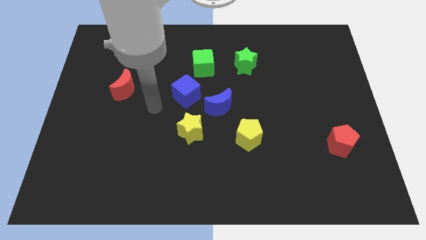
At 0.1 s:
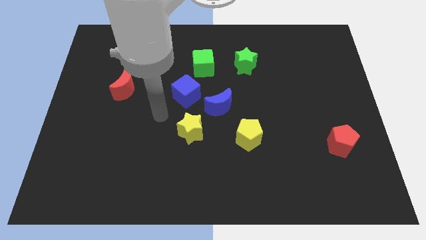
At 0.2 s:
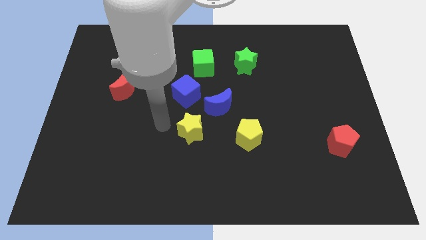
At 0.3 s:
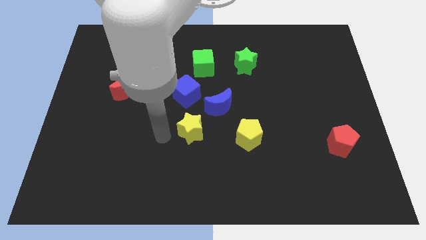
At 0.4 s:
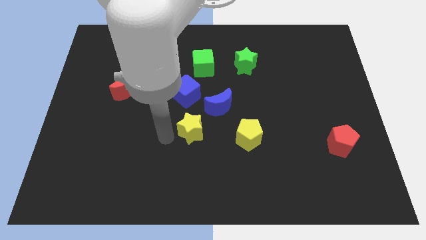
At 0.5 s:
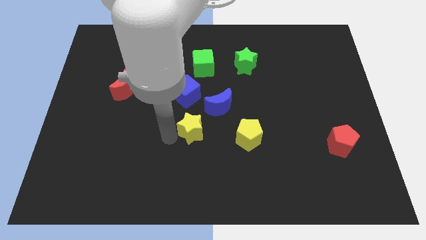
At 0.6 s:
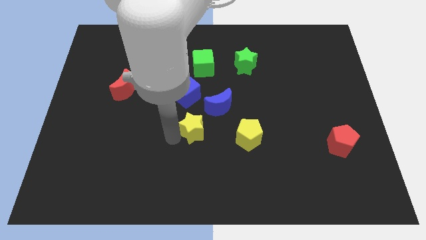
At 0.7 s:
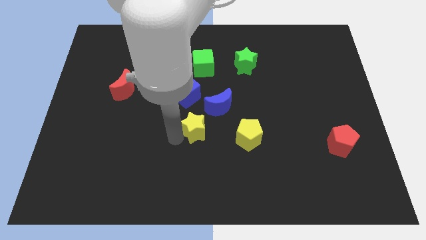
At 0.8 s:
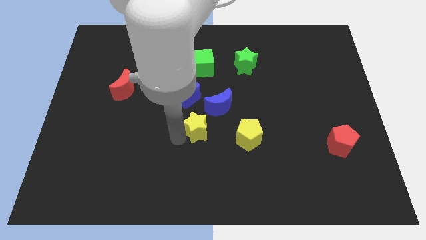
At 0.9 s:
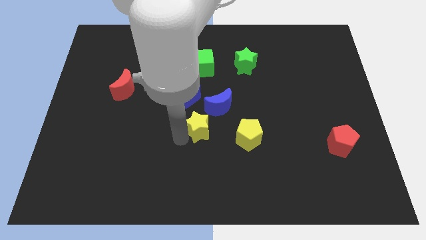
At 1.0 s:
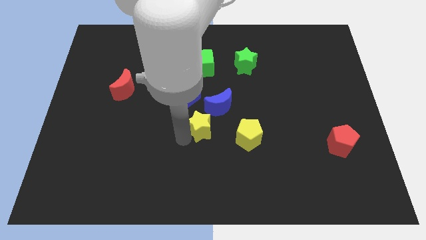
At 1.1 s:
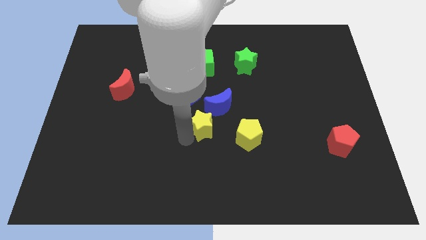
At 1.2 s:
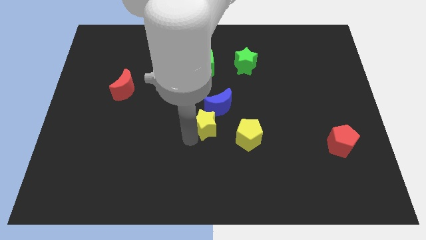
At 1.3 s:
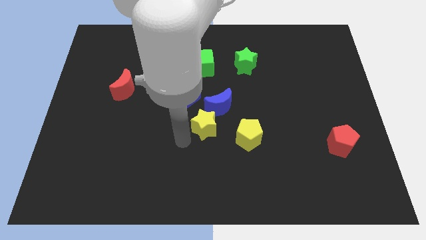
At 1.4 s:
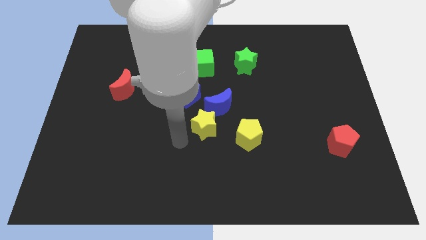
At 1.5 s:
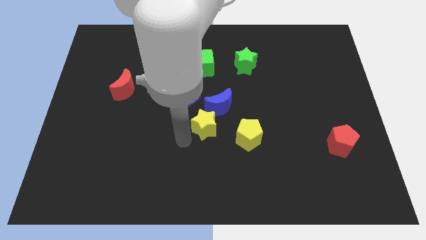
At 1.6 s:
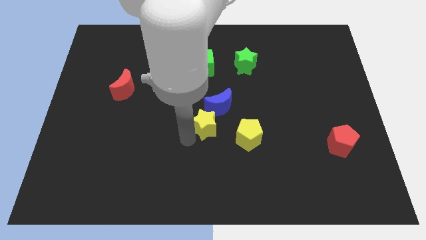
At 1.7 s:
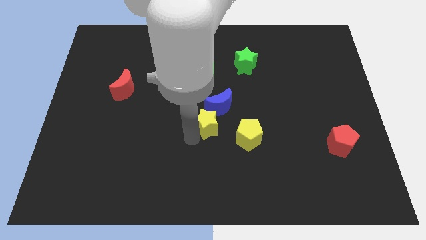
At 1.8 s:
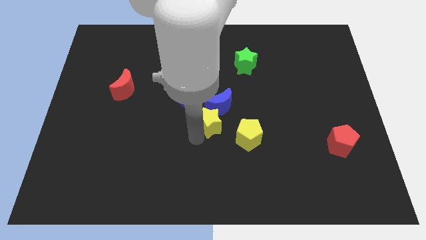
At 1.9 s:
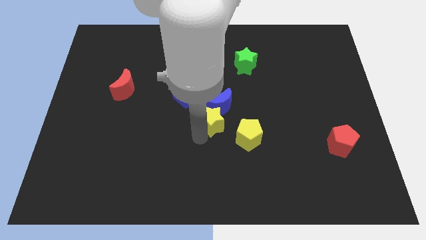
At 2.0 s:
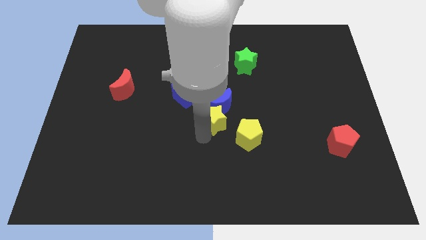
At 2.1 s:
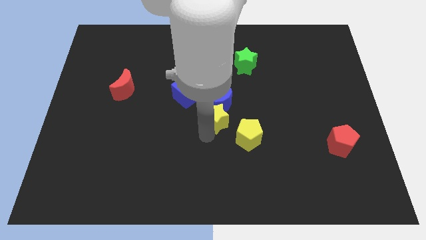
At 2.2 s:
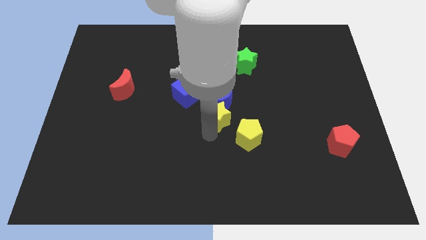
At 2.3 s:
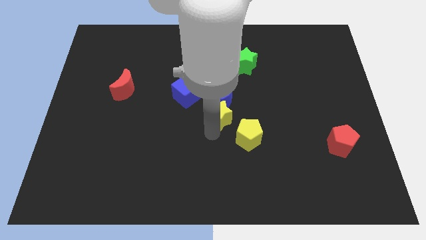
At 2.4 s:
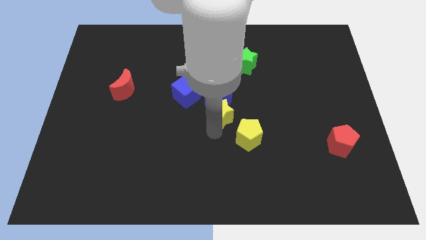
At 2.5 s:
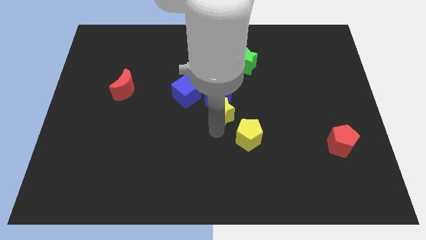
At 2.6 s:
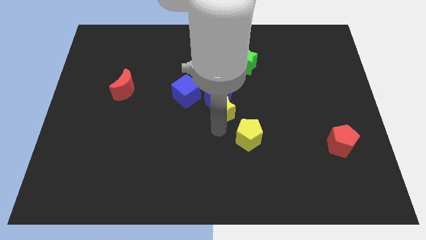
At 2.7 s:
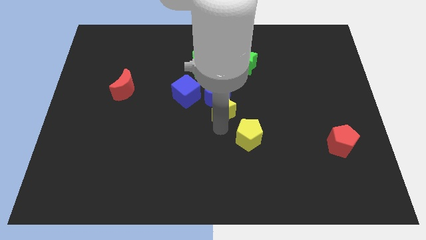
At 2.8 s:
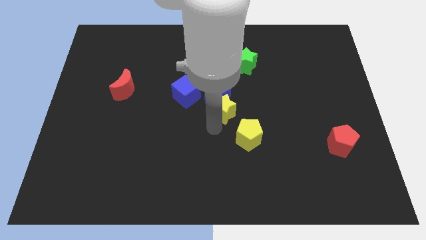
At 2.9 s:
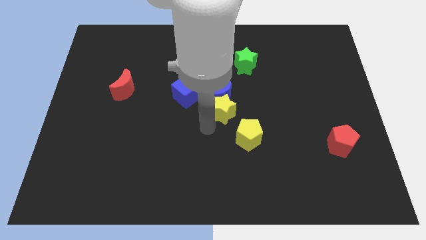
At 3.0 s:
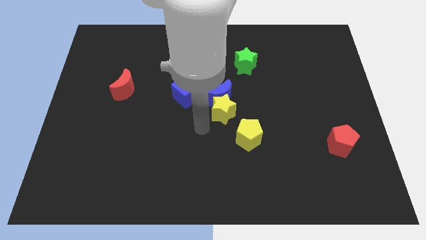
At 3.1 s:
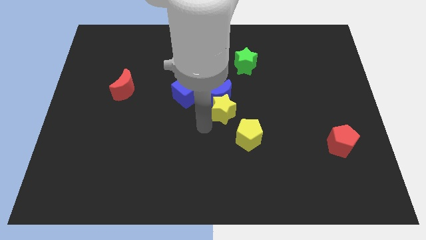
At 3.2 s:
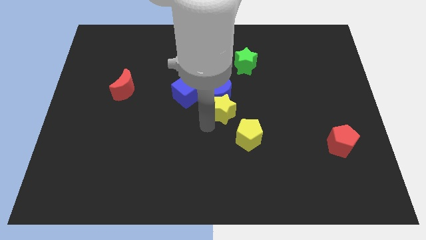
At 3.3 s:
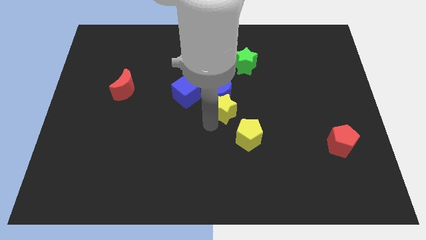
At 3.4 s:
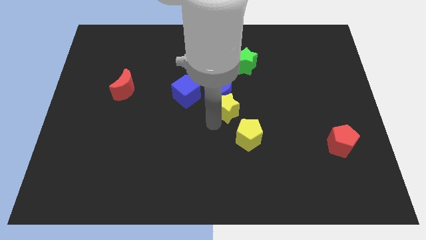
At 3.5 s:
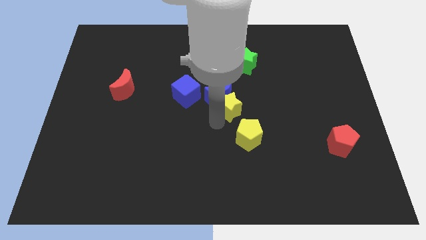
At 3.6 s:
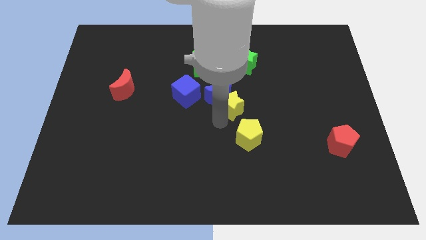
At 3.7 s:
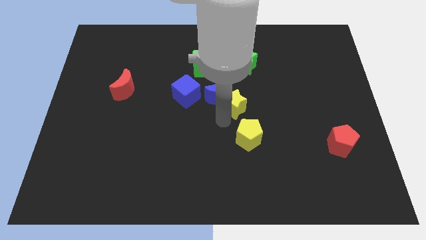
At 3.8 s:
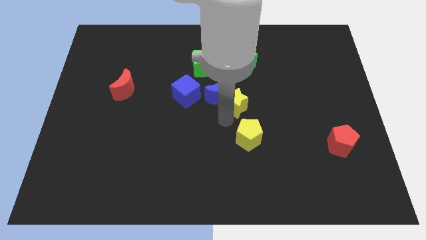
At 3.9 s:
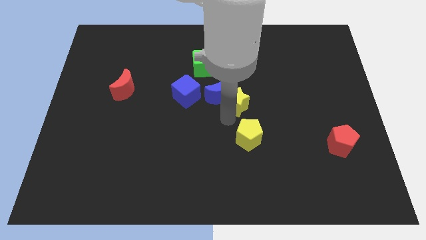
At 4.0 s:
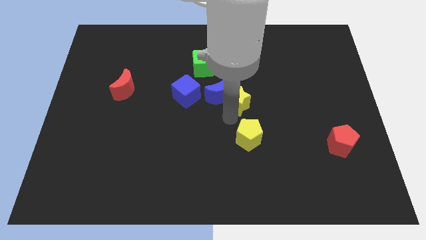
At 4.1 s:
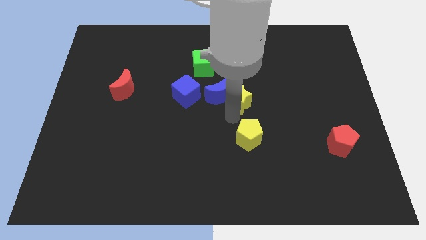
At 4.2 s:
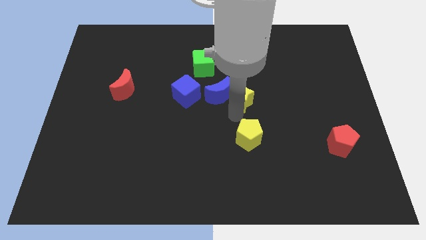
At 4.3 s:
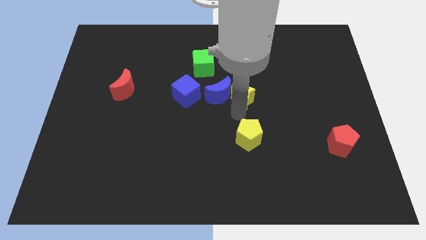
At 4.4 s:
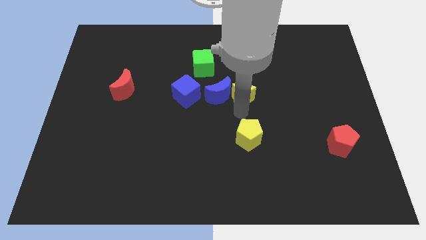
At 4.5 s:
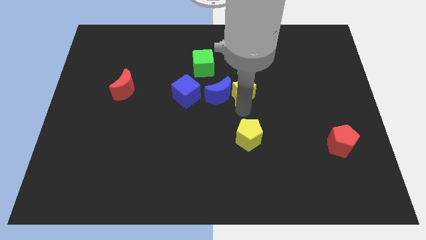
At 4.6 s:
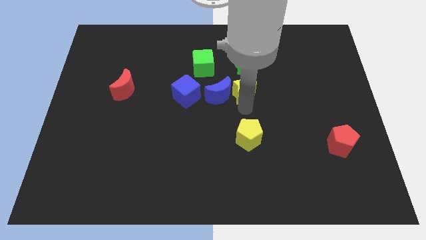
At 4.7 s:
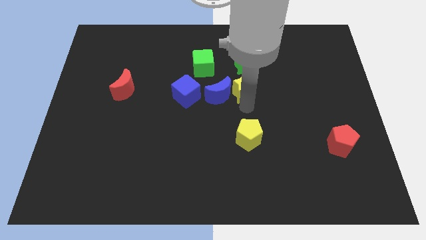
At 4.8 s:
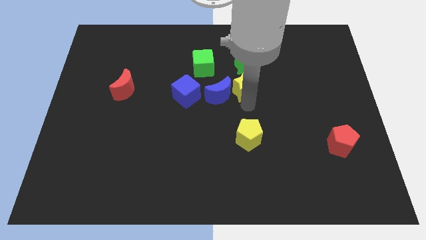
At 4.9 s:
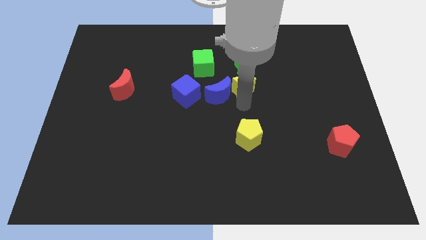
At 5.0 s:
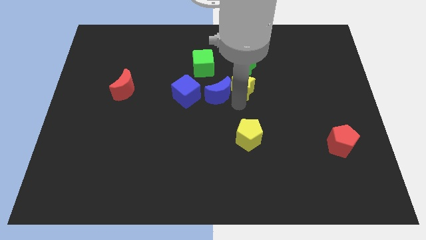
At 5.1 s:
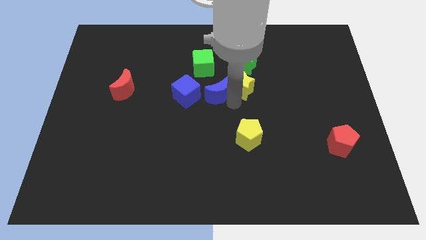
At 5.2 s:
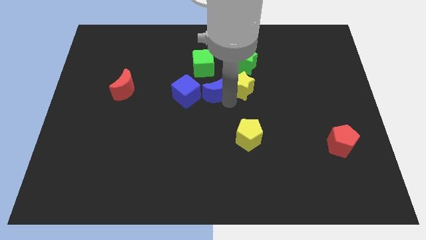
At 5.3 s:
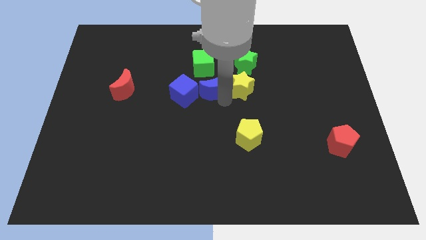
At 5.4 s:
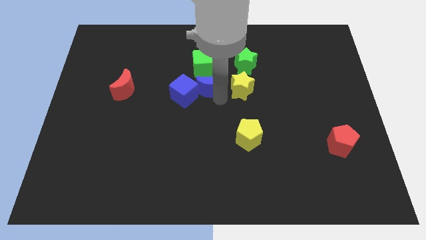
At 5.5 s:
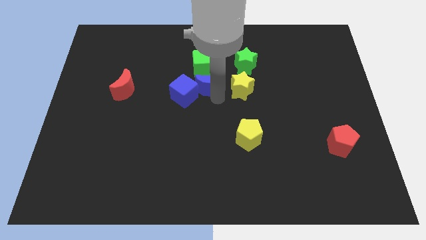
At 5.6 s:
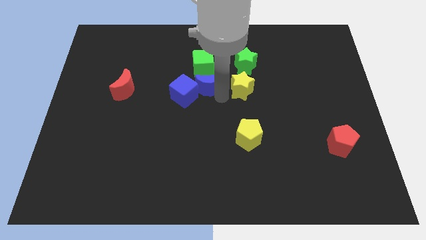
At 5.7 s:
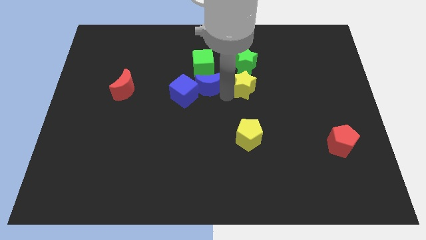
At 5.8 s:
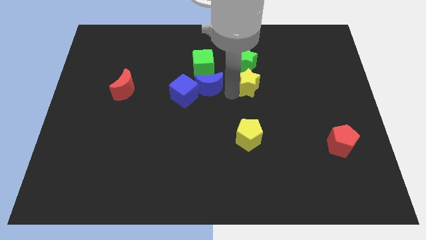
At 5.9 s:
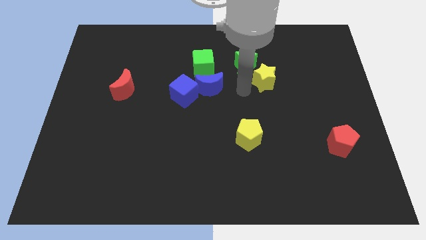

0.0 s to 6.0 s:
slide the yellow star up and then to the right

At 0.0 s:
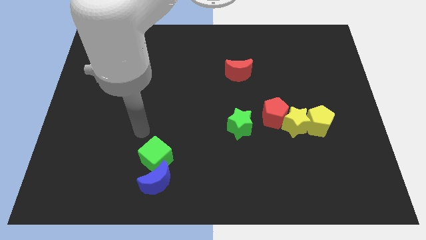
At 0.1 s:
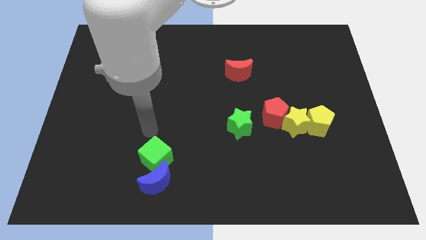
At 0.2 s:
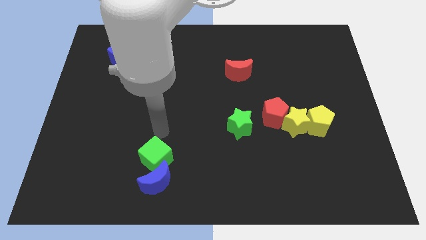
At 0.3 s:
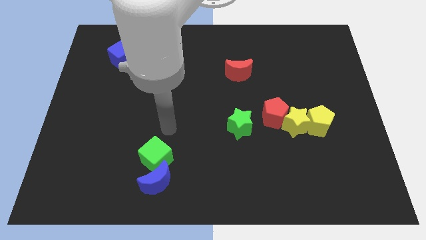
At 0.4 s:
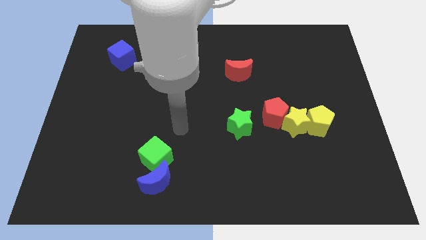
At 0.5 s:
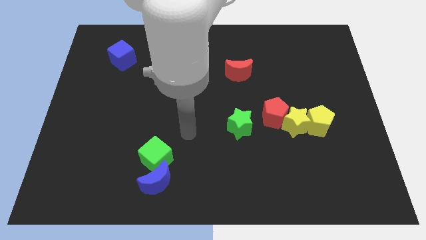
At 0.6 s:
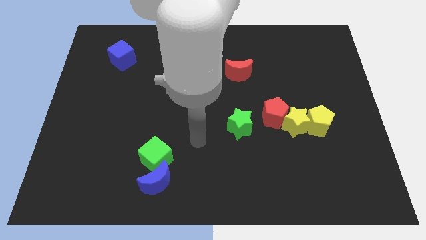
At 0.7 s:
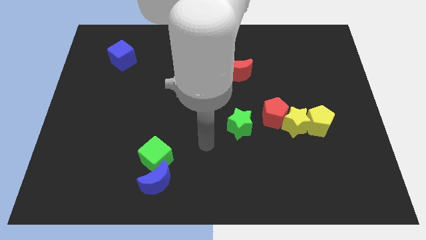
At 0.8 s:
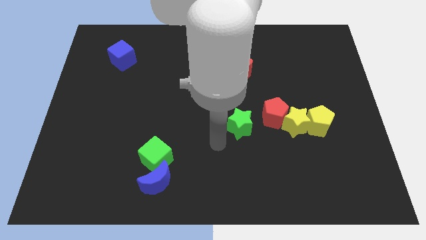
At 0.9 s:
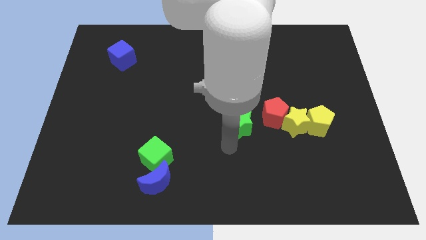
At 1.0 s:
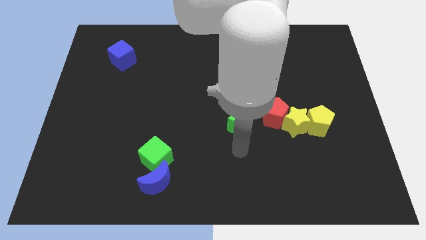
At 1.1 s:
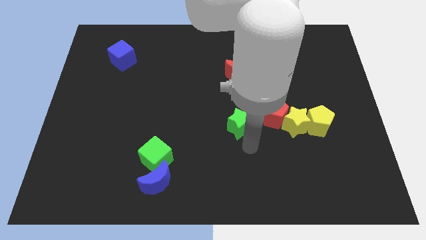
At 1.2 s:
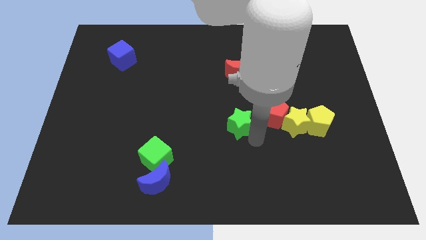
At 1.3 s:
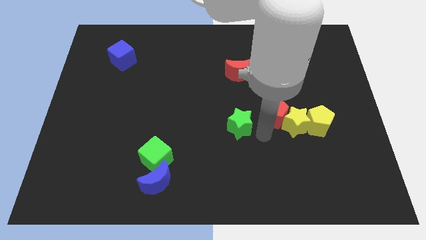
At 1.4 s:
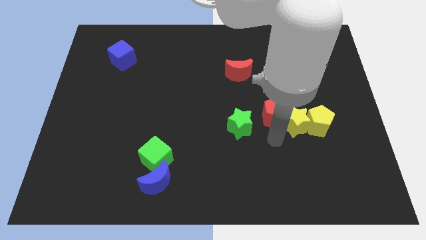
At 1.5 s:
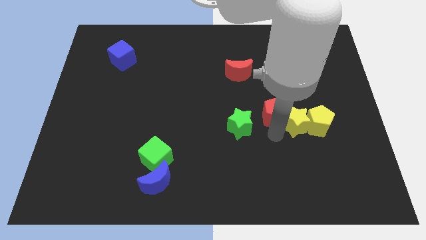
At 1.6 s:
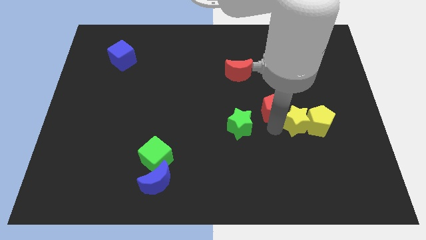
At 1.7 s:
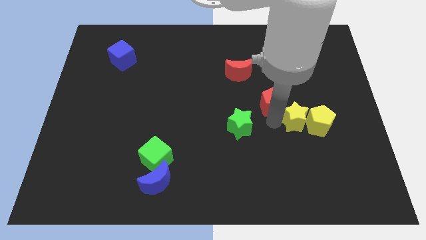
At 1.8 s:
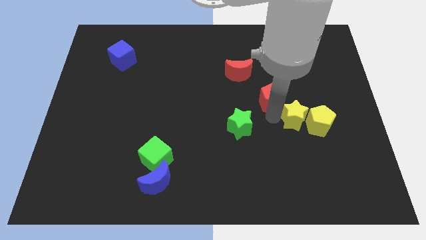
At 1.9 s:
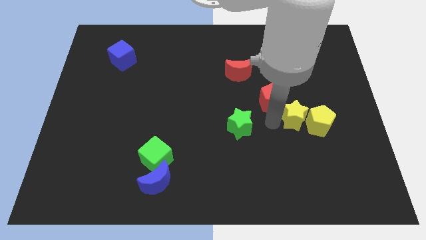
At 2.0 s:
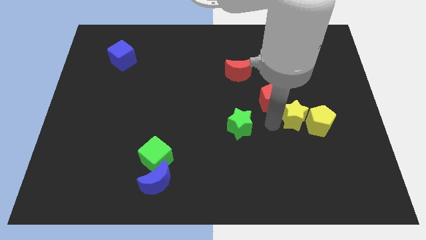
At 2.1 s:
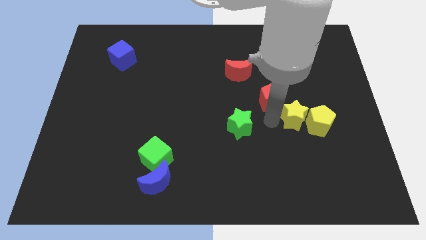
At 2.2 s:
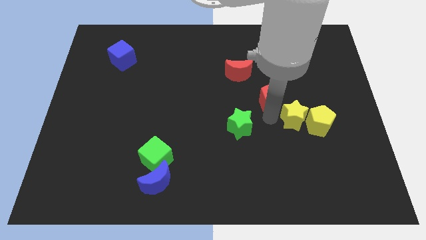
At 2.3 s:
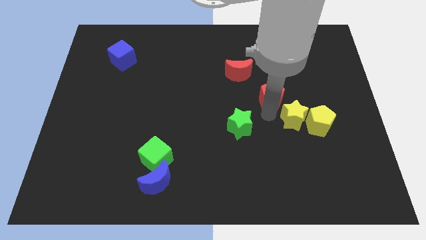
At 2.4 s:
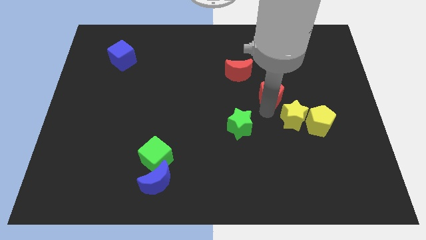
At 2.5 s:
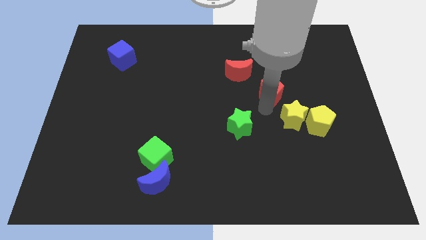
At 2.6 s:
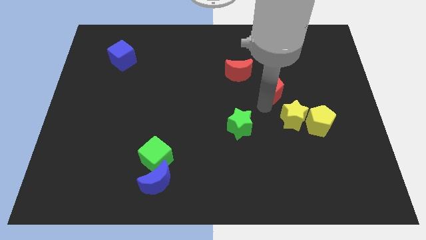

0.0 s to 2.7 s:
slide the red pentagon upwards a little bit
